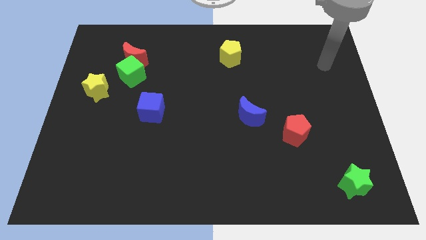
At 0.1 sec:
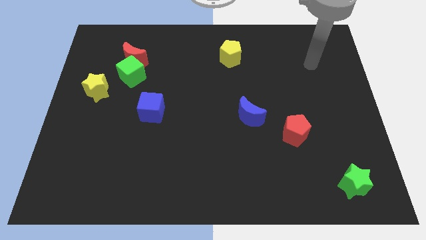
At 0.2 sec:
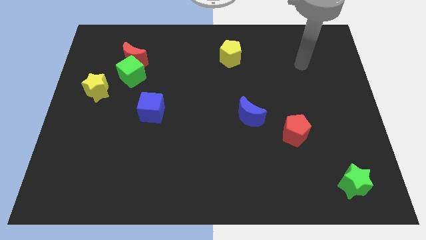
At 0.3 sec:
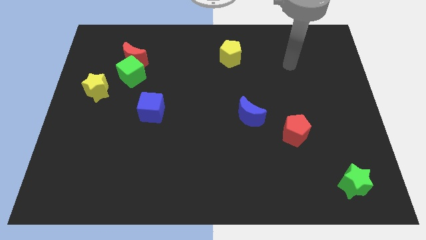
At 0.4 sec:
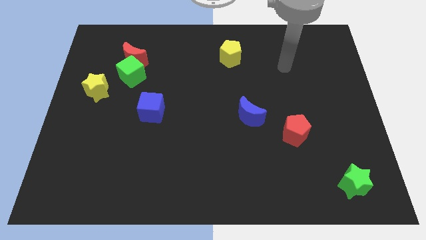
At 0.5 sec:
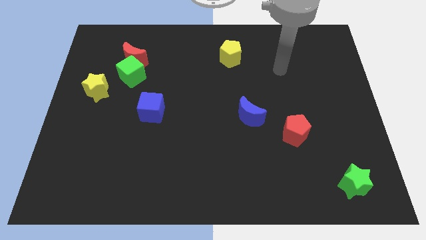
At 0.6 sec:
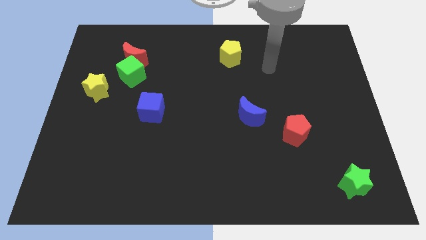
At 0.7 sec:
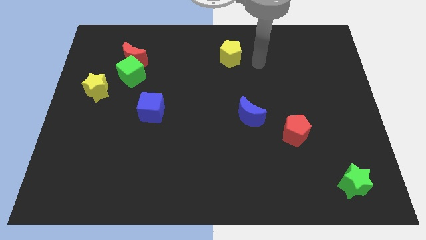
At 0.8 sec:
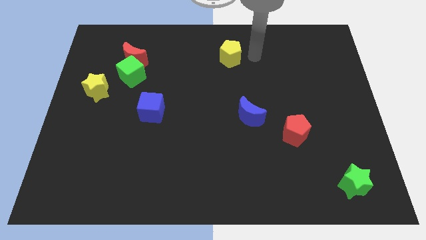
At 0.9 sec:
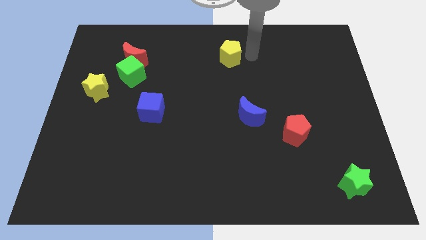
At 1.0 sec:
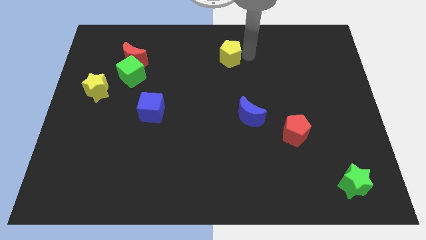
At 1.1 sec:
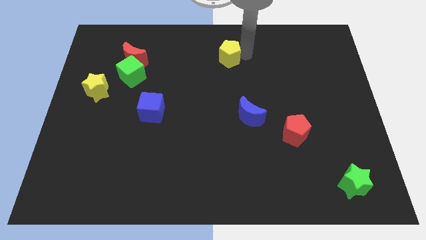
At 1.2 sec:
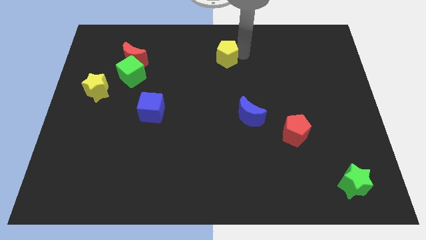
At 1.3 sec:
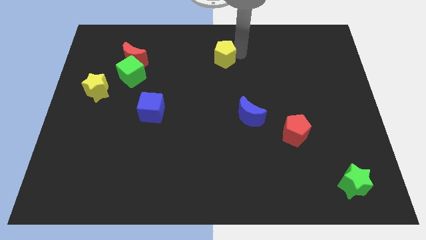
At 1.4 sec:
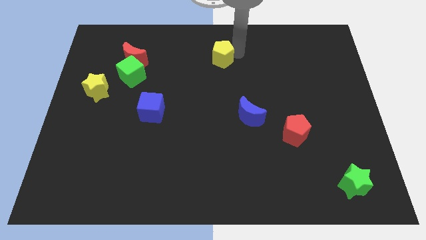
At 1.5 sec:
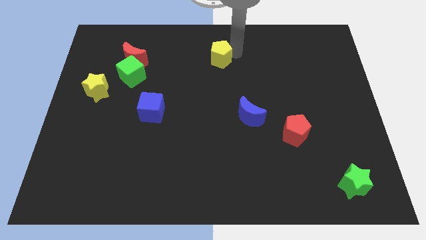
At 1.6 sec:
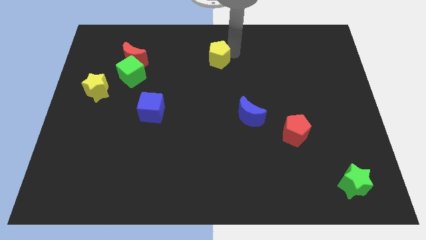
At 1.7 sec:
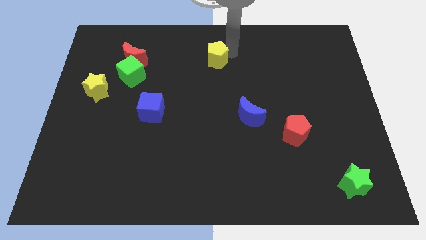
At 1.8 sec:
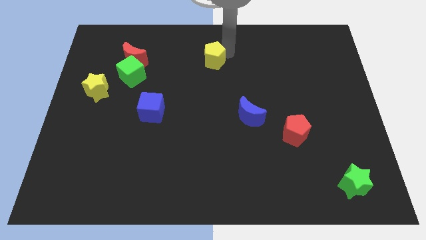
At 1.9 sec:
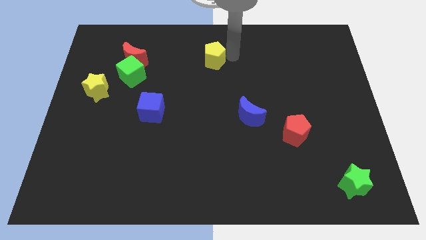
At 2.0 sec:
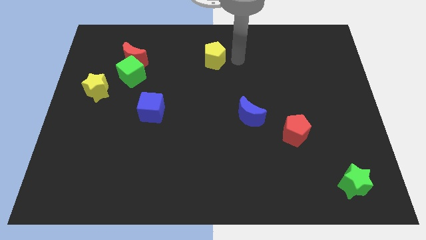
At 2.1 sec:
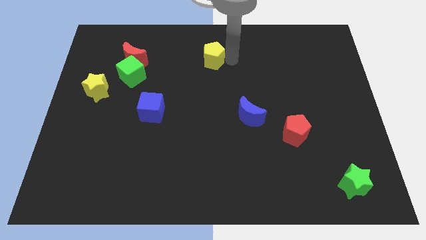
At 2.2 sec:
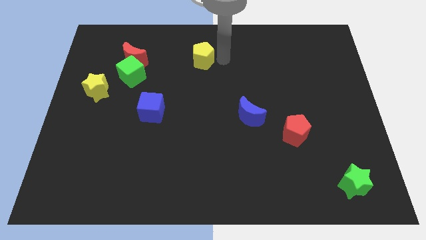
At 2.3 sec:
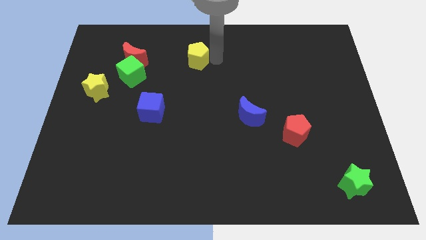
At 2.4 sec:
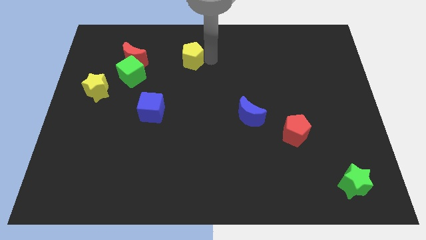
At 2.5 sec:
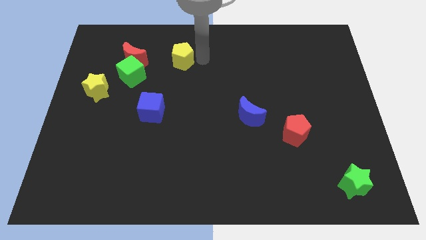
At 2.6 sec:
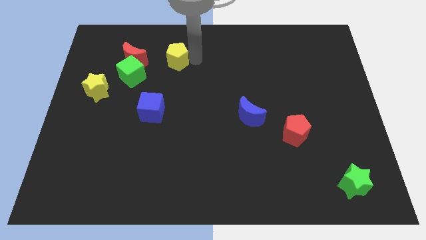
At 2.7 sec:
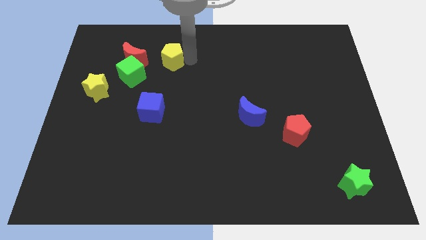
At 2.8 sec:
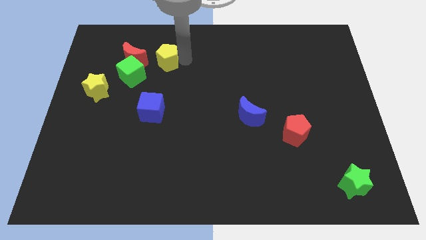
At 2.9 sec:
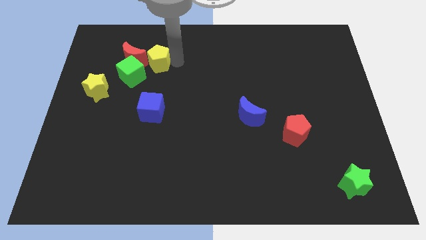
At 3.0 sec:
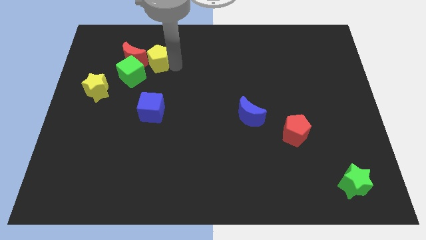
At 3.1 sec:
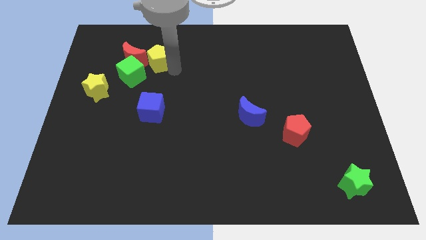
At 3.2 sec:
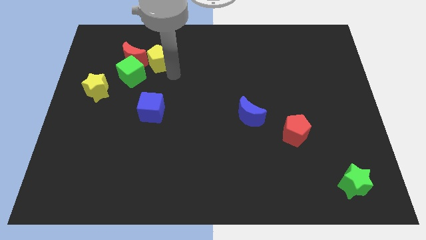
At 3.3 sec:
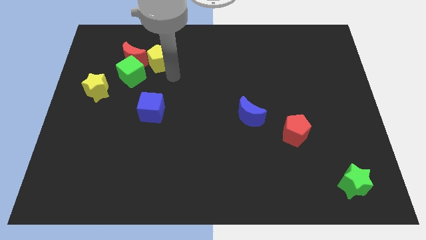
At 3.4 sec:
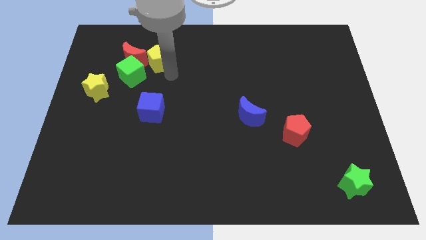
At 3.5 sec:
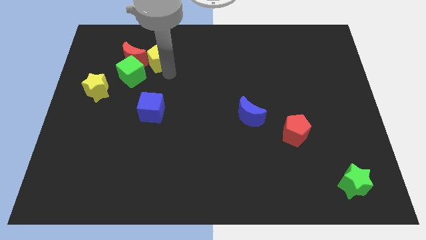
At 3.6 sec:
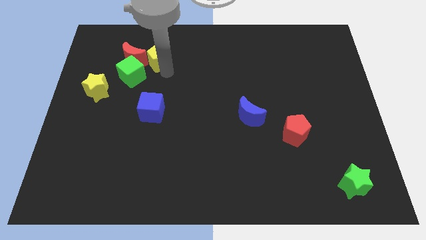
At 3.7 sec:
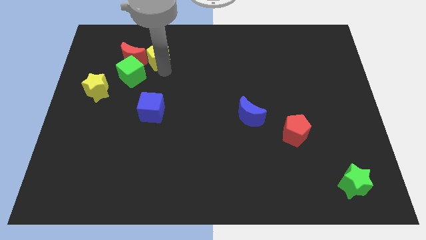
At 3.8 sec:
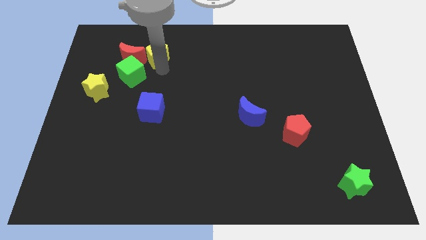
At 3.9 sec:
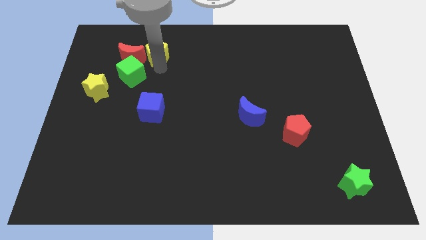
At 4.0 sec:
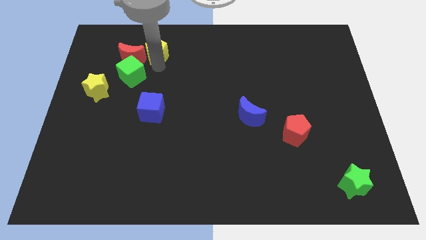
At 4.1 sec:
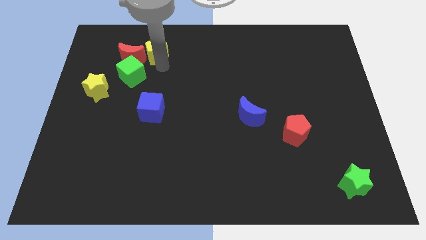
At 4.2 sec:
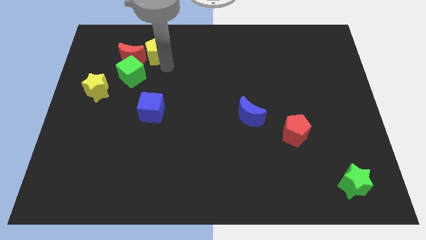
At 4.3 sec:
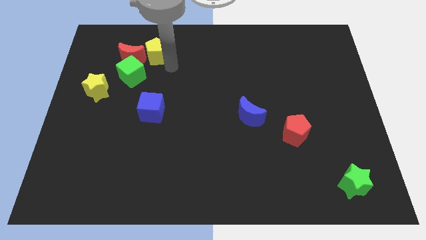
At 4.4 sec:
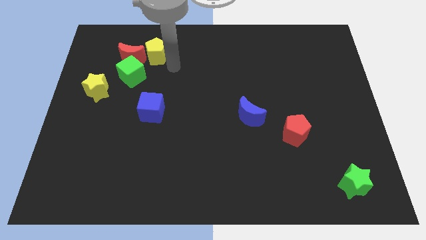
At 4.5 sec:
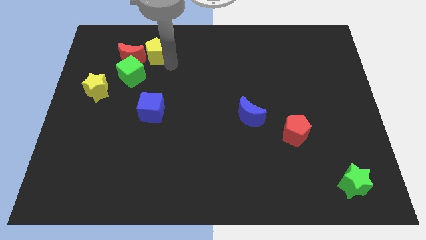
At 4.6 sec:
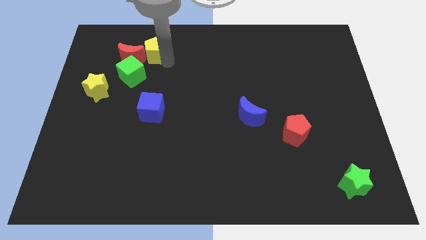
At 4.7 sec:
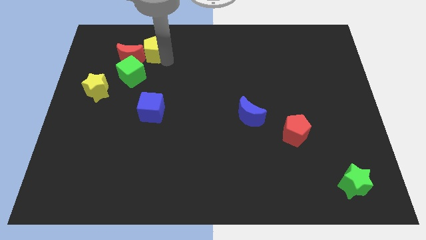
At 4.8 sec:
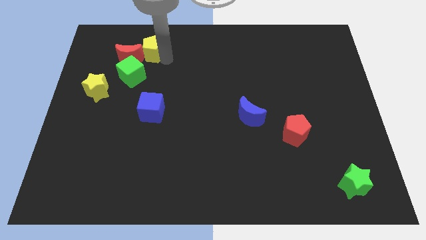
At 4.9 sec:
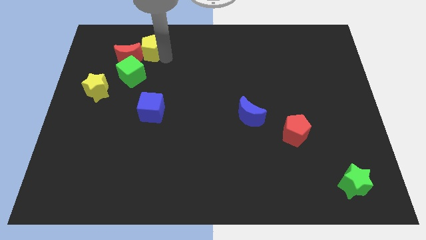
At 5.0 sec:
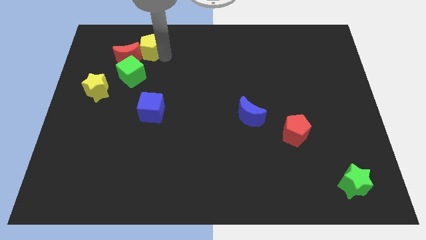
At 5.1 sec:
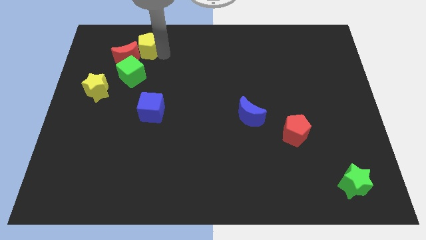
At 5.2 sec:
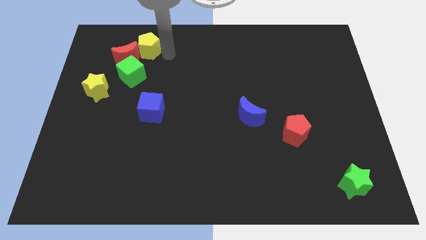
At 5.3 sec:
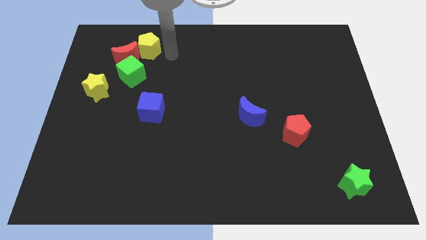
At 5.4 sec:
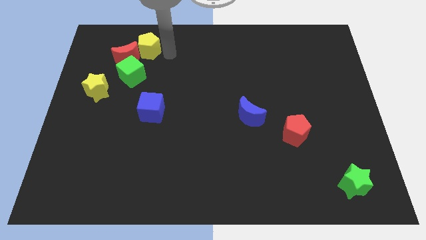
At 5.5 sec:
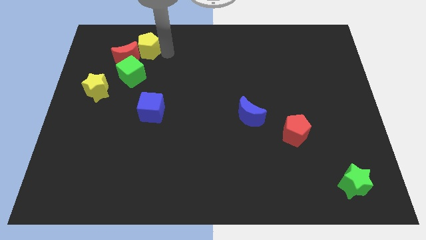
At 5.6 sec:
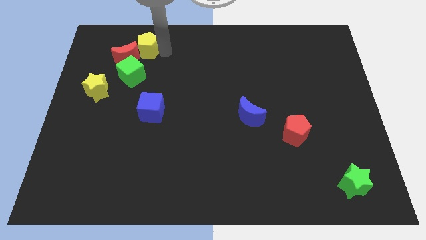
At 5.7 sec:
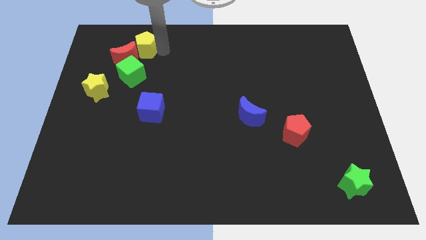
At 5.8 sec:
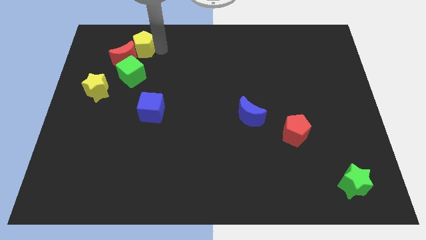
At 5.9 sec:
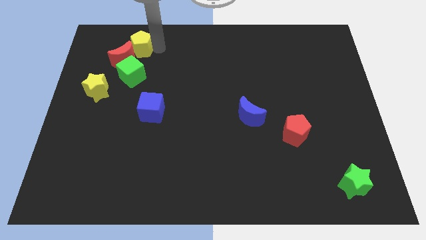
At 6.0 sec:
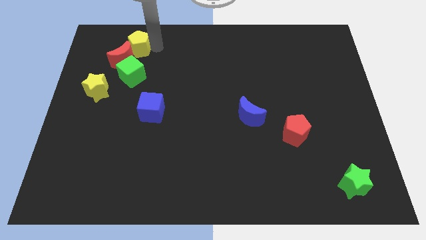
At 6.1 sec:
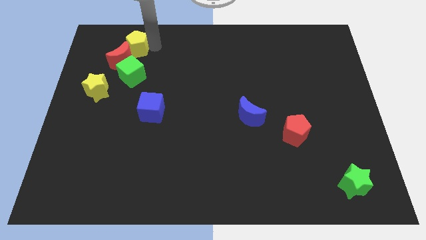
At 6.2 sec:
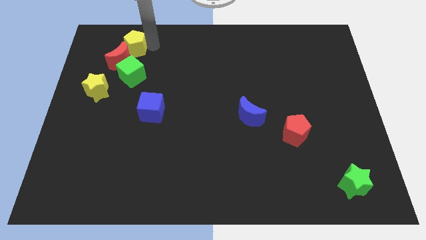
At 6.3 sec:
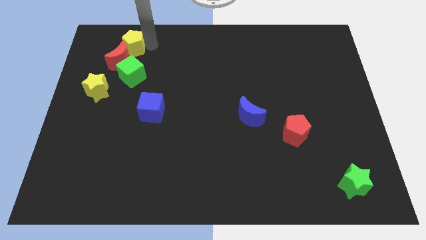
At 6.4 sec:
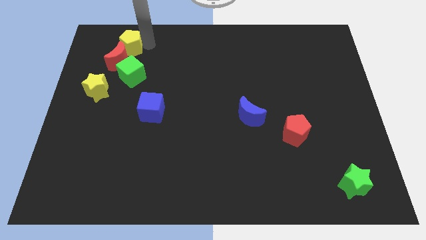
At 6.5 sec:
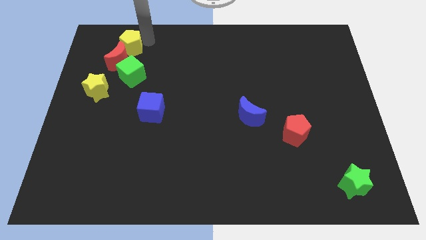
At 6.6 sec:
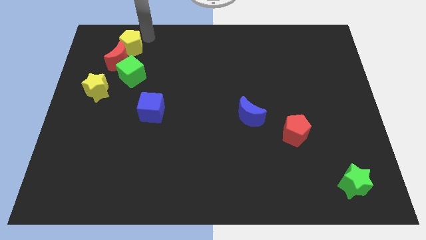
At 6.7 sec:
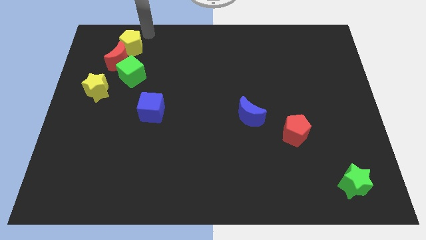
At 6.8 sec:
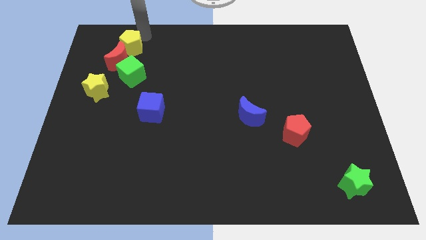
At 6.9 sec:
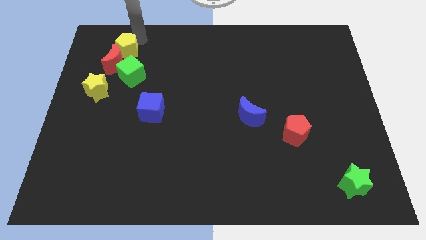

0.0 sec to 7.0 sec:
slide the yellow pentagon to the top left side of the green cube
